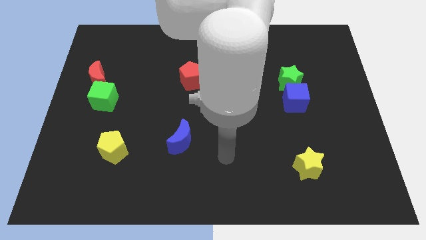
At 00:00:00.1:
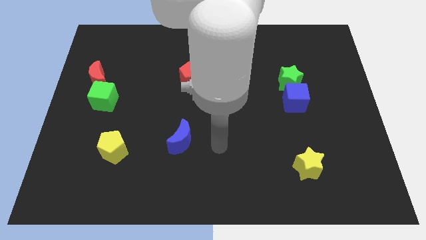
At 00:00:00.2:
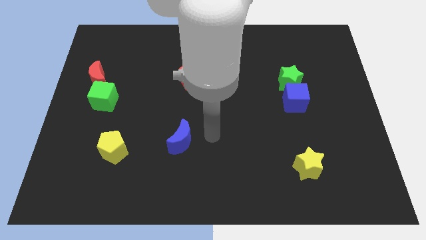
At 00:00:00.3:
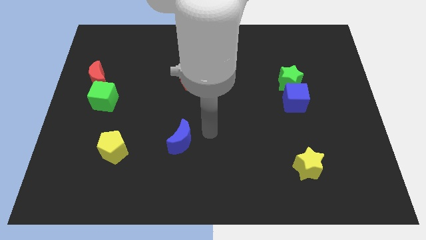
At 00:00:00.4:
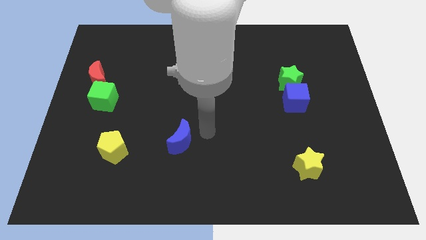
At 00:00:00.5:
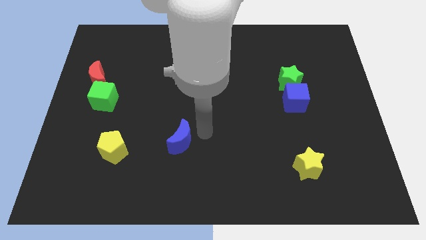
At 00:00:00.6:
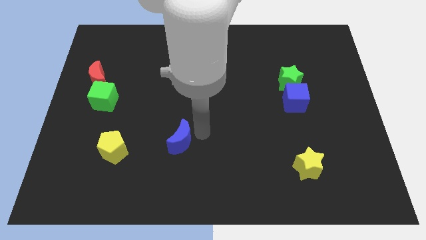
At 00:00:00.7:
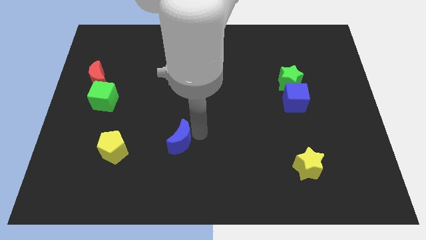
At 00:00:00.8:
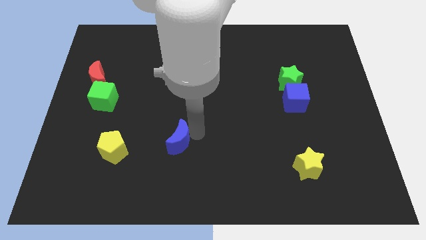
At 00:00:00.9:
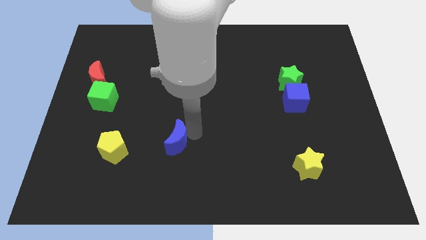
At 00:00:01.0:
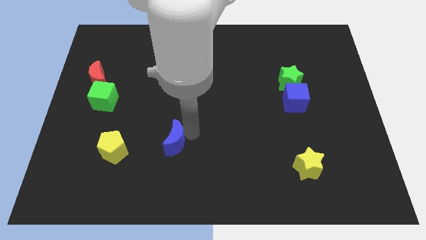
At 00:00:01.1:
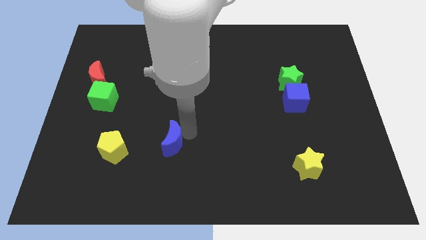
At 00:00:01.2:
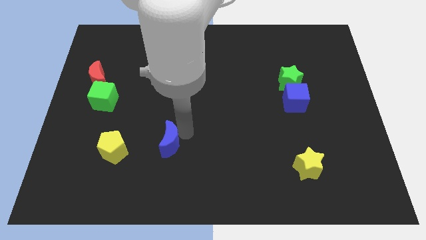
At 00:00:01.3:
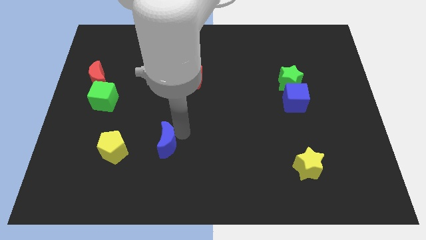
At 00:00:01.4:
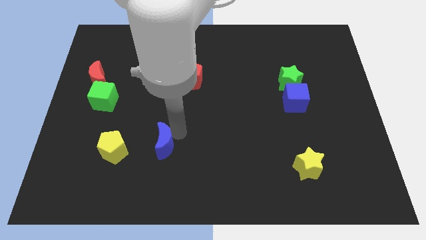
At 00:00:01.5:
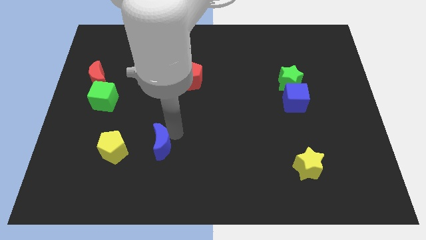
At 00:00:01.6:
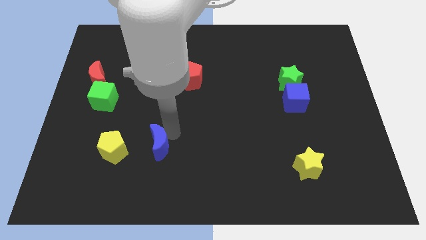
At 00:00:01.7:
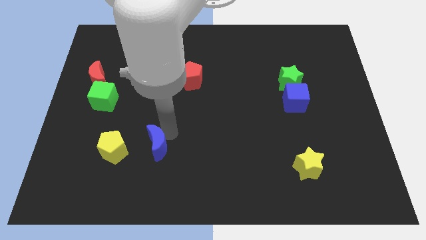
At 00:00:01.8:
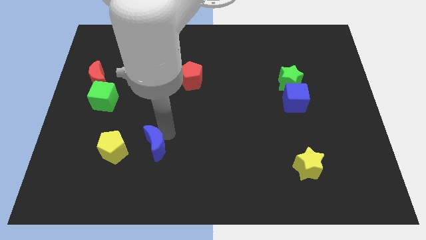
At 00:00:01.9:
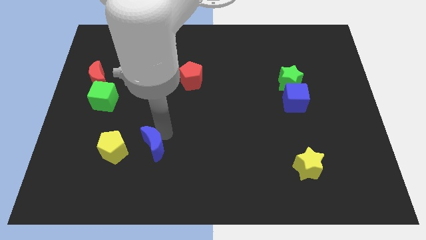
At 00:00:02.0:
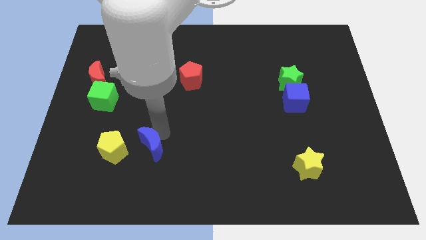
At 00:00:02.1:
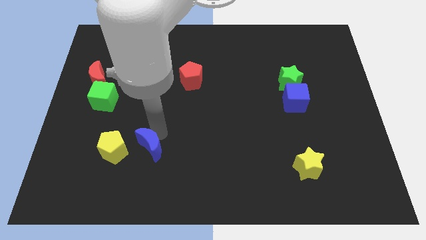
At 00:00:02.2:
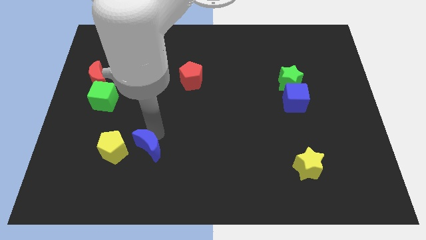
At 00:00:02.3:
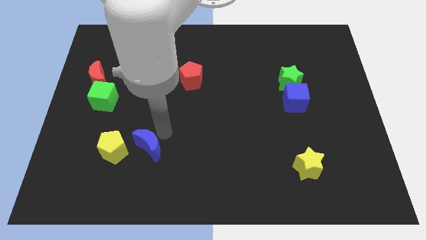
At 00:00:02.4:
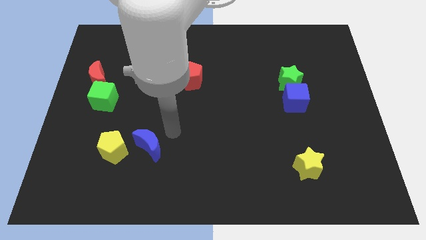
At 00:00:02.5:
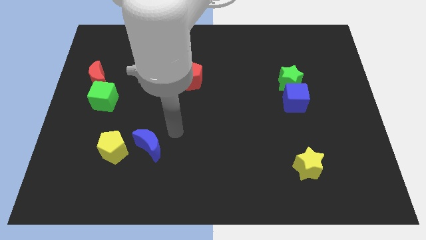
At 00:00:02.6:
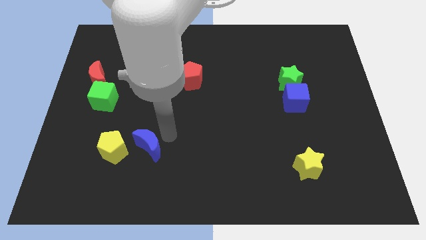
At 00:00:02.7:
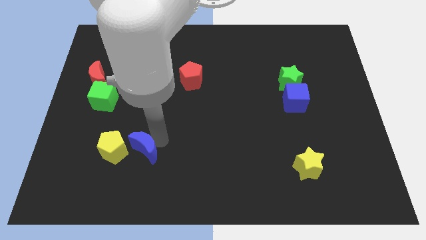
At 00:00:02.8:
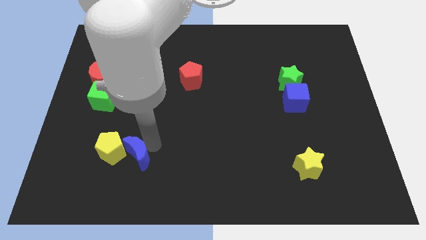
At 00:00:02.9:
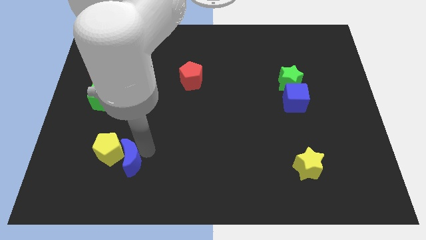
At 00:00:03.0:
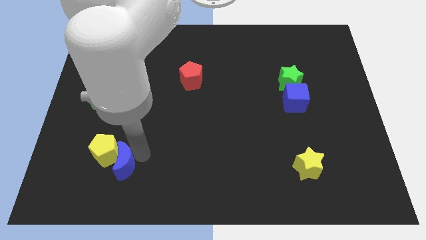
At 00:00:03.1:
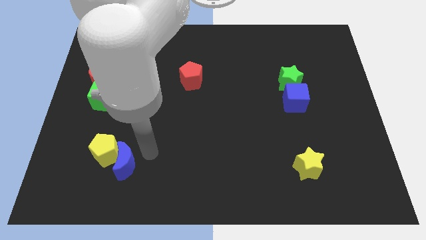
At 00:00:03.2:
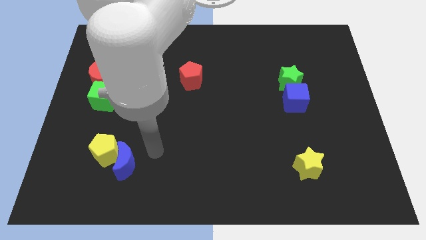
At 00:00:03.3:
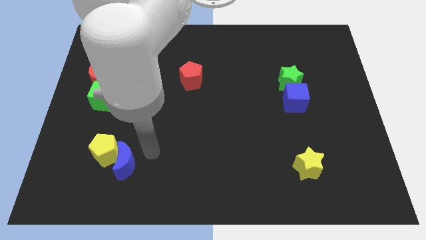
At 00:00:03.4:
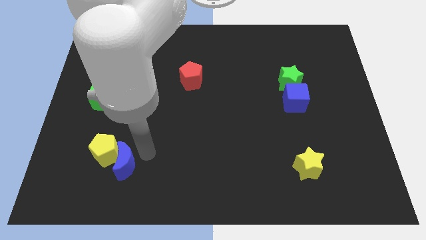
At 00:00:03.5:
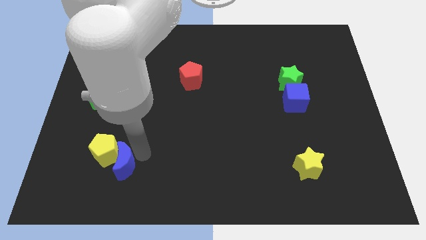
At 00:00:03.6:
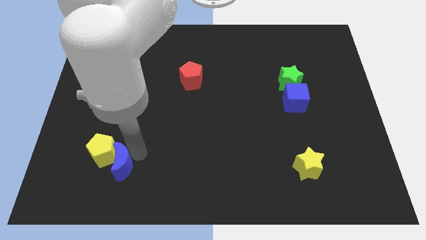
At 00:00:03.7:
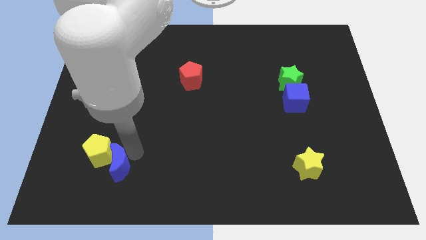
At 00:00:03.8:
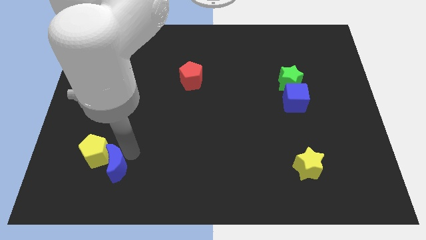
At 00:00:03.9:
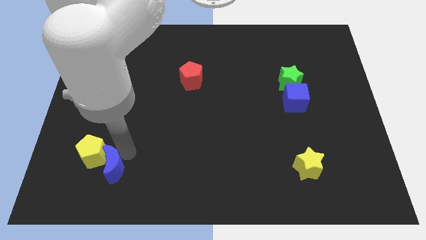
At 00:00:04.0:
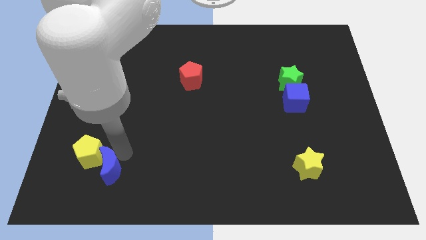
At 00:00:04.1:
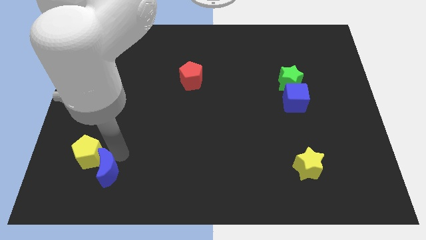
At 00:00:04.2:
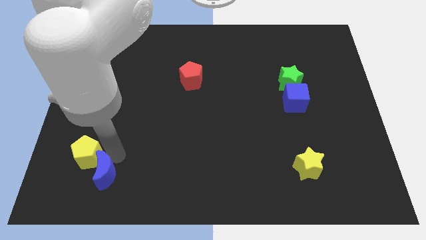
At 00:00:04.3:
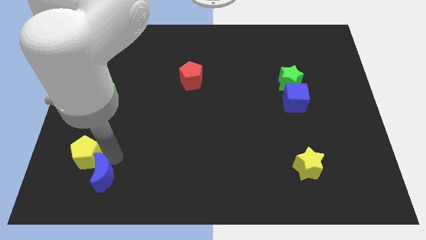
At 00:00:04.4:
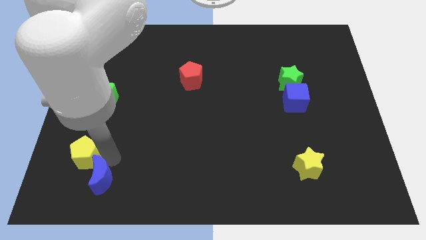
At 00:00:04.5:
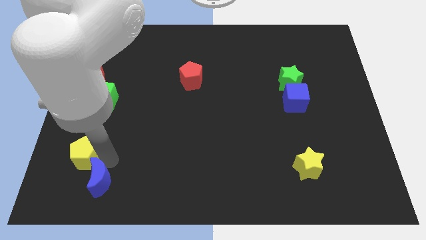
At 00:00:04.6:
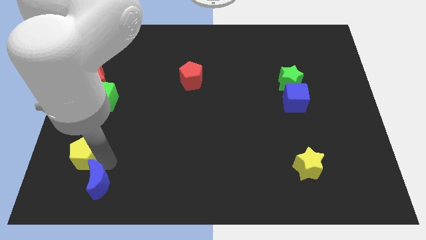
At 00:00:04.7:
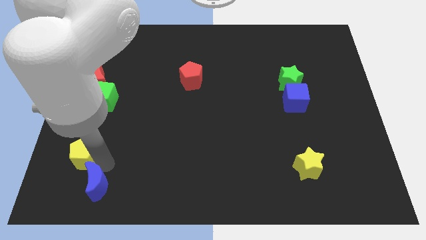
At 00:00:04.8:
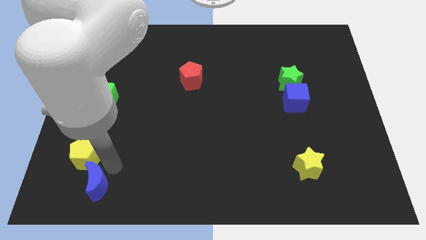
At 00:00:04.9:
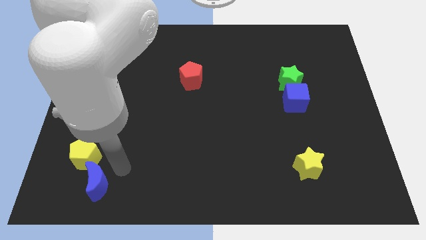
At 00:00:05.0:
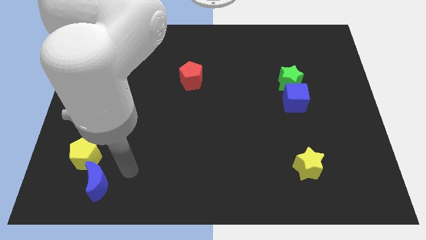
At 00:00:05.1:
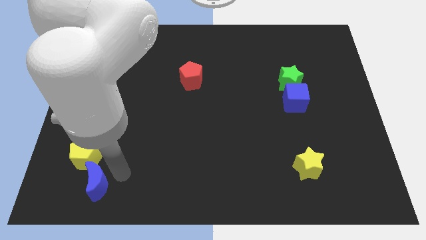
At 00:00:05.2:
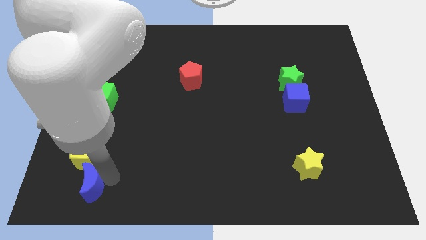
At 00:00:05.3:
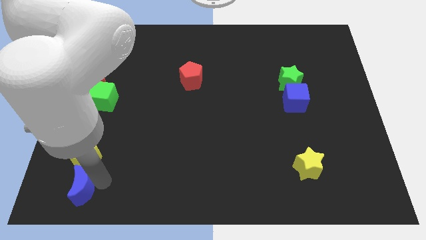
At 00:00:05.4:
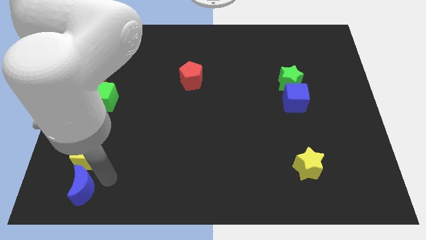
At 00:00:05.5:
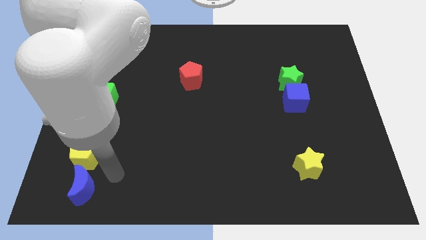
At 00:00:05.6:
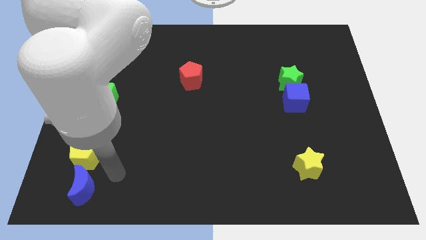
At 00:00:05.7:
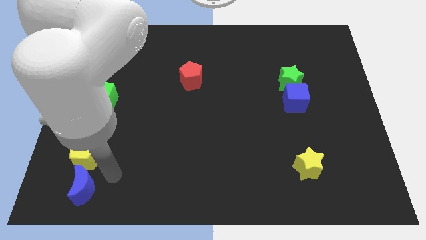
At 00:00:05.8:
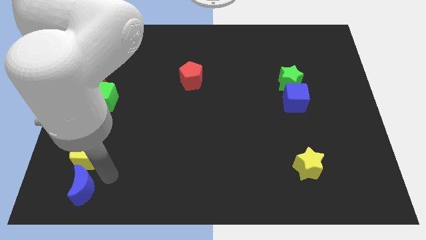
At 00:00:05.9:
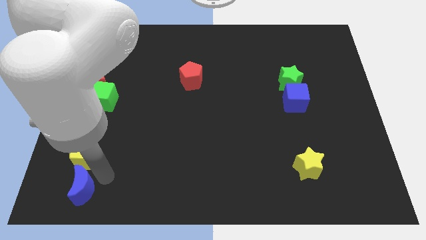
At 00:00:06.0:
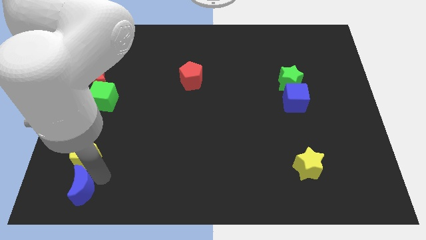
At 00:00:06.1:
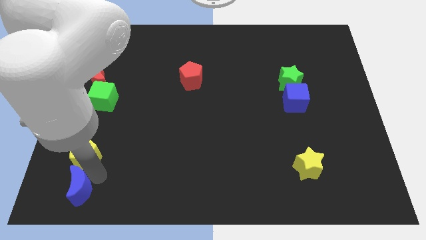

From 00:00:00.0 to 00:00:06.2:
slide the blue moon to the lower left corner
